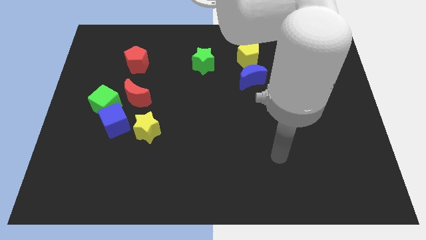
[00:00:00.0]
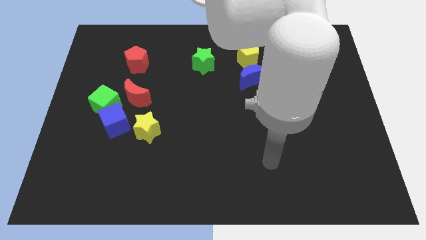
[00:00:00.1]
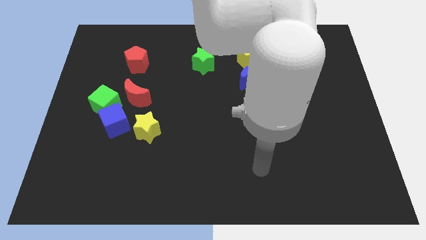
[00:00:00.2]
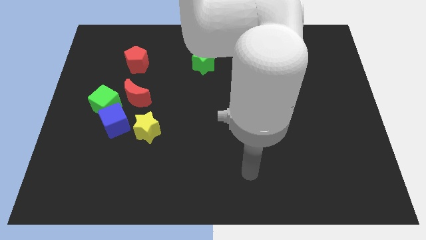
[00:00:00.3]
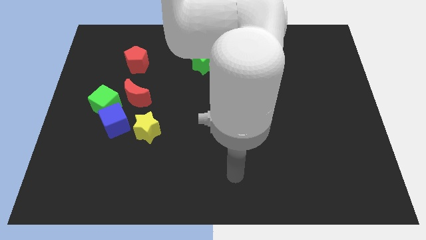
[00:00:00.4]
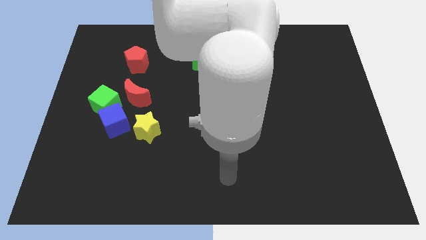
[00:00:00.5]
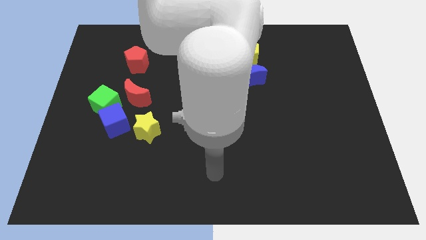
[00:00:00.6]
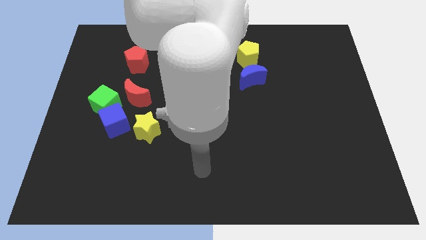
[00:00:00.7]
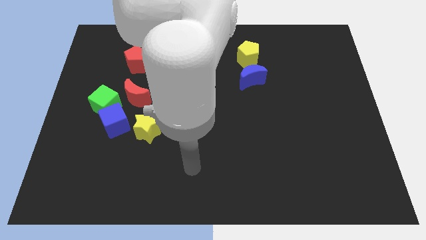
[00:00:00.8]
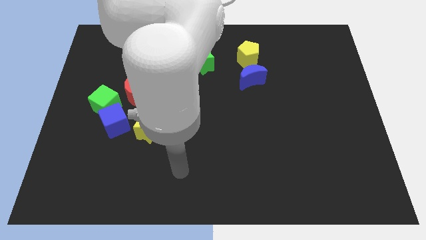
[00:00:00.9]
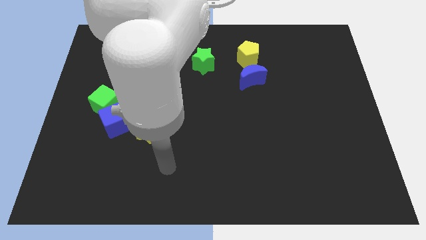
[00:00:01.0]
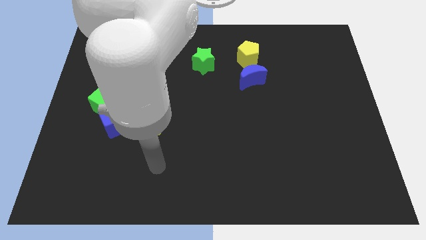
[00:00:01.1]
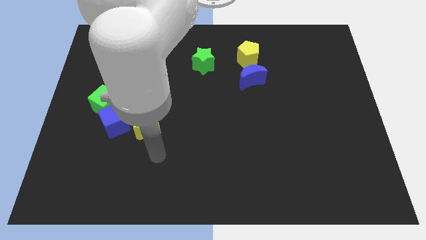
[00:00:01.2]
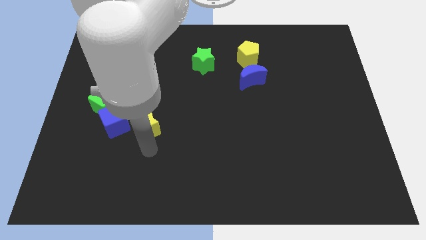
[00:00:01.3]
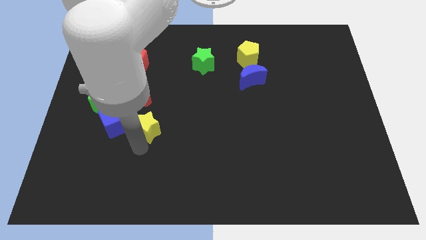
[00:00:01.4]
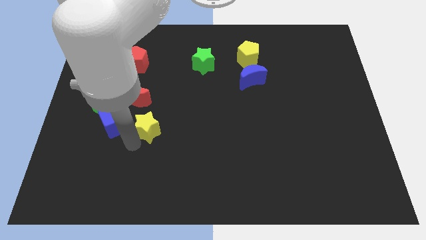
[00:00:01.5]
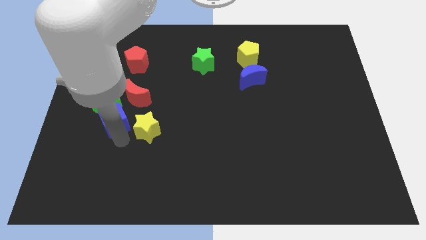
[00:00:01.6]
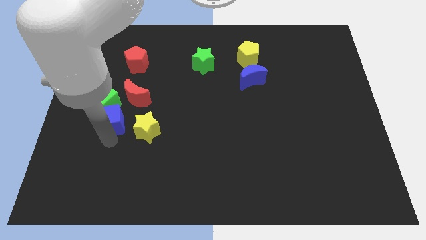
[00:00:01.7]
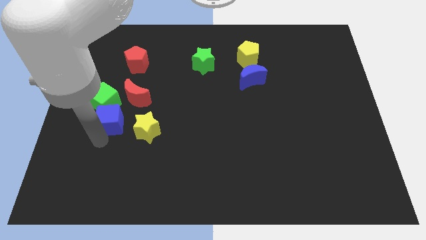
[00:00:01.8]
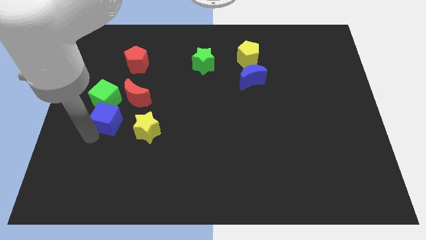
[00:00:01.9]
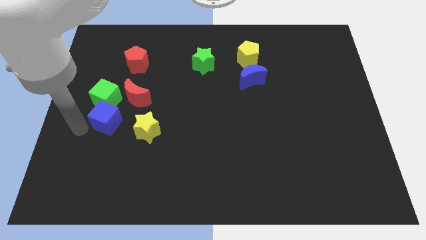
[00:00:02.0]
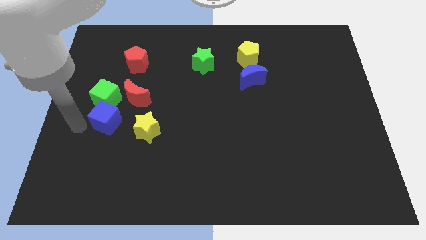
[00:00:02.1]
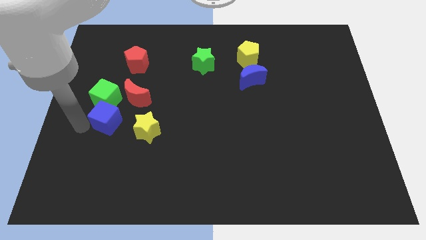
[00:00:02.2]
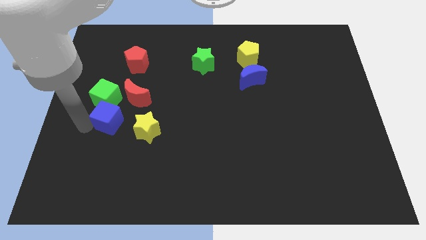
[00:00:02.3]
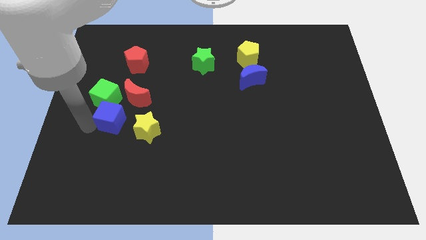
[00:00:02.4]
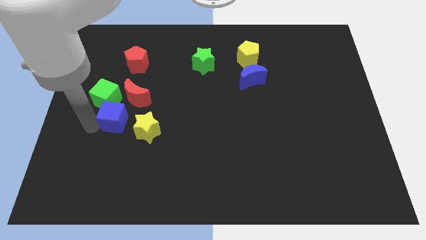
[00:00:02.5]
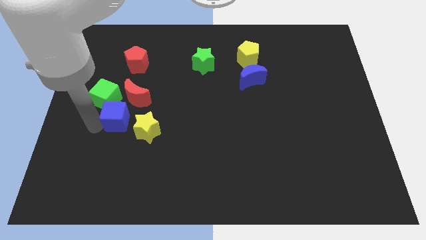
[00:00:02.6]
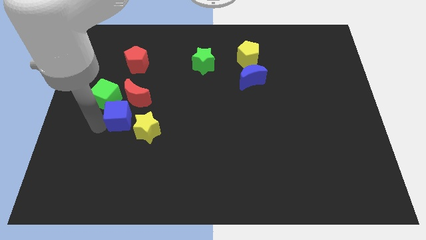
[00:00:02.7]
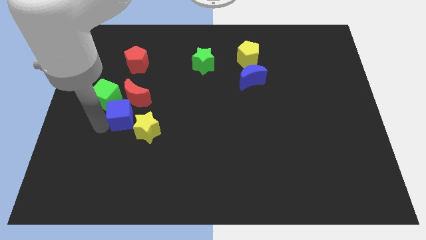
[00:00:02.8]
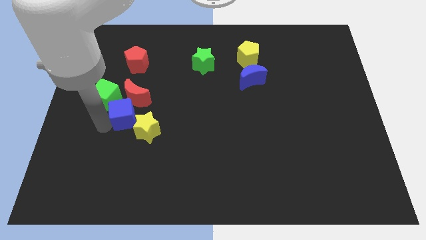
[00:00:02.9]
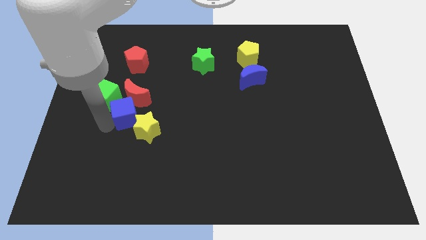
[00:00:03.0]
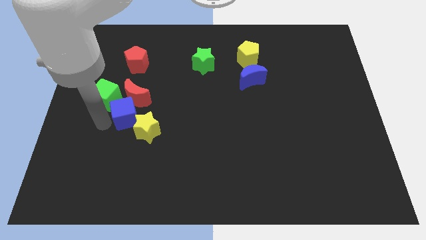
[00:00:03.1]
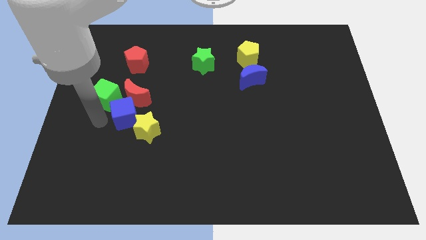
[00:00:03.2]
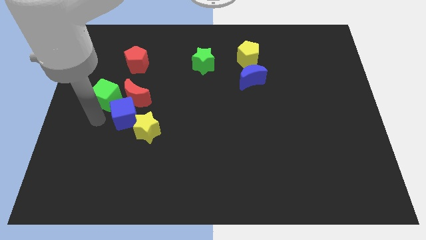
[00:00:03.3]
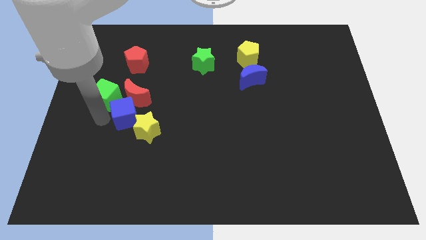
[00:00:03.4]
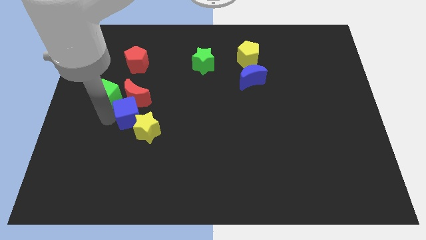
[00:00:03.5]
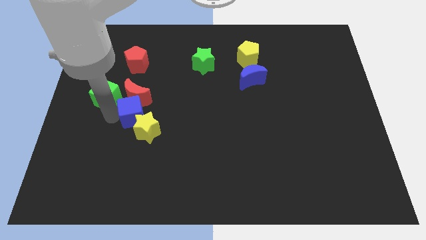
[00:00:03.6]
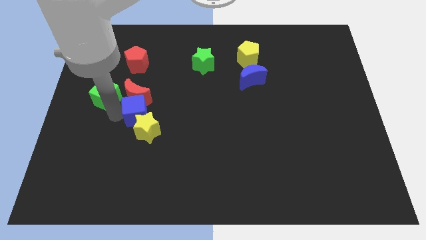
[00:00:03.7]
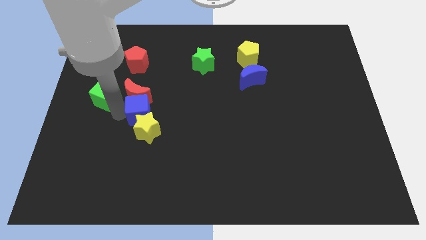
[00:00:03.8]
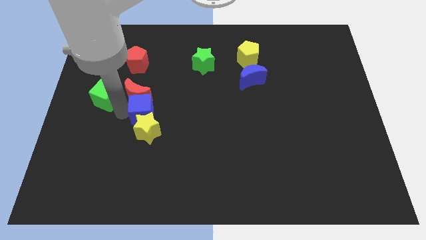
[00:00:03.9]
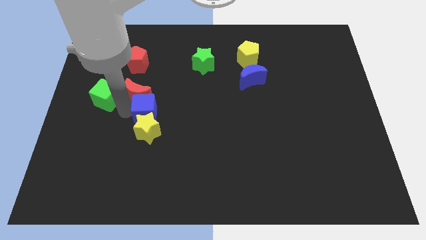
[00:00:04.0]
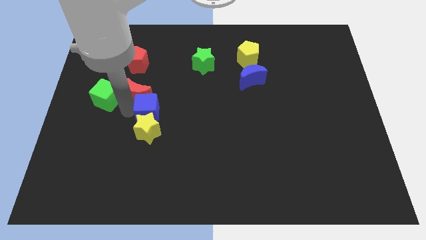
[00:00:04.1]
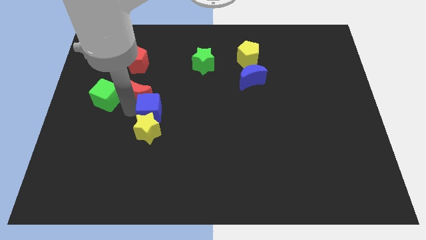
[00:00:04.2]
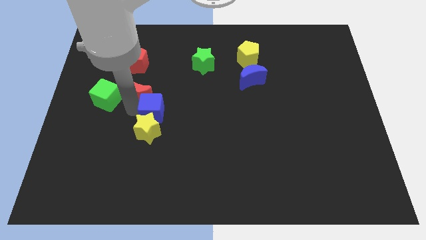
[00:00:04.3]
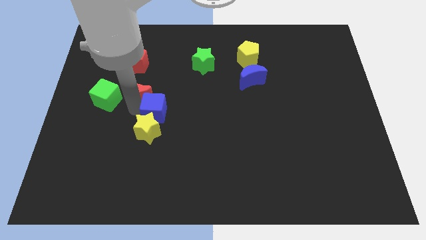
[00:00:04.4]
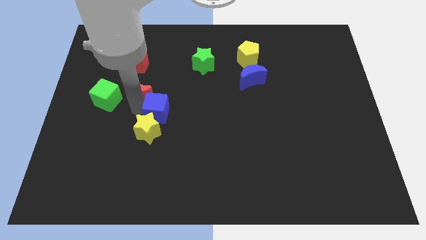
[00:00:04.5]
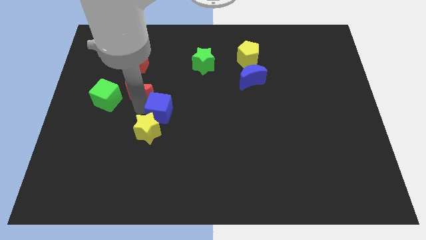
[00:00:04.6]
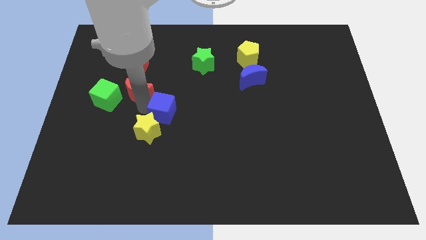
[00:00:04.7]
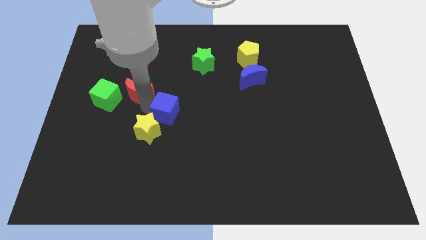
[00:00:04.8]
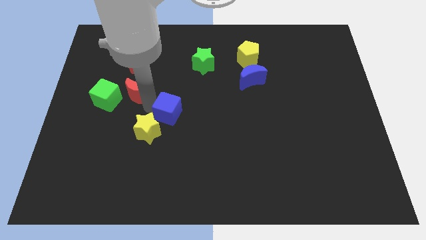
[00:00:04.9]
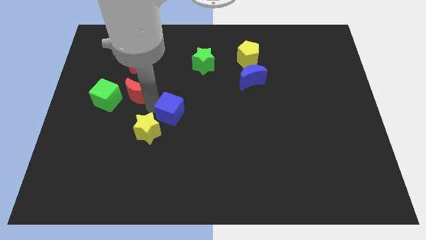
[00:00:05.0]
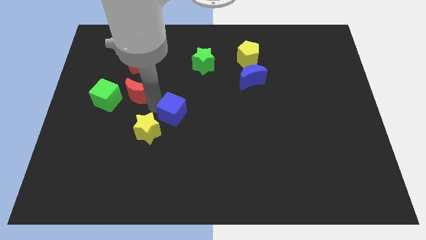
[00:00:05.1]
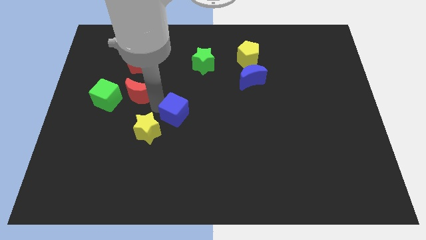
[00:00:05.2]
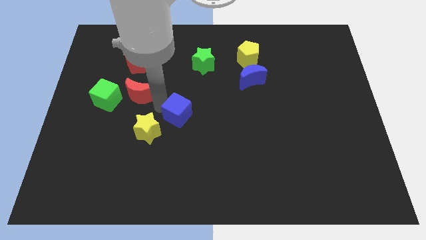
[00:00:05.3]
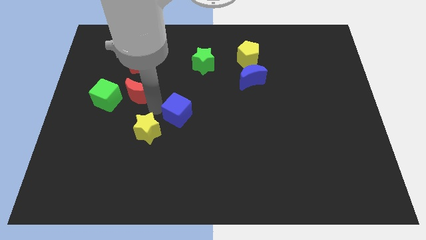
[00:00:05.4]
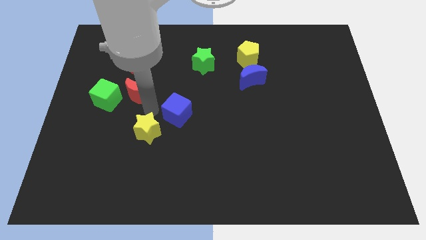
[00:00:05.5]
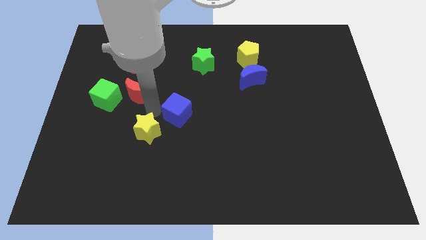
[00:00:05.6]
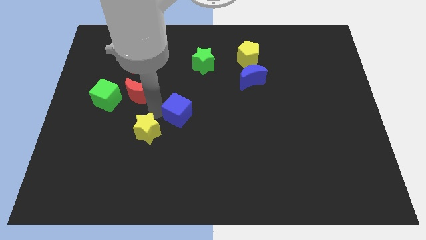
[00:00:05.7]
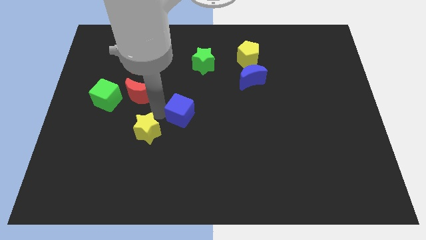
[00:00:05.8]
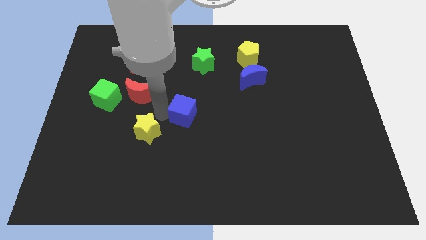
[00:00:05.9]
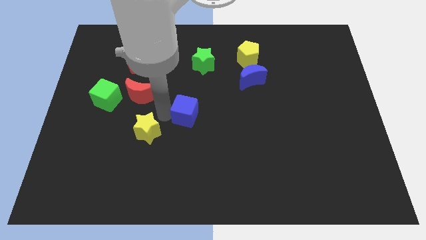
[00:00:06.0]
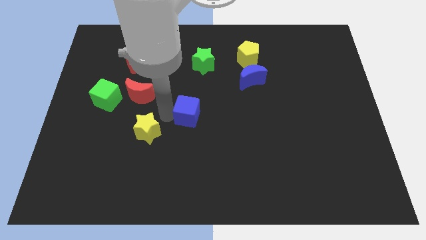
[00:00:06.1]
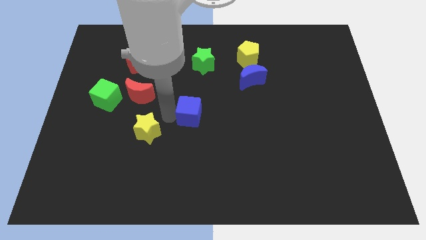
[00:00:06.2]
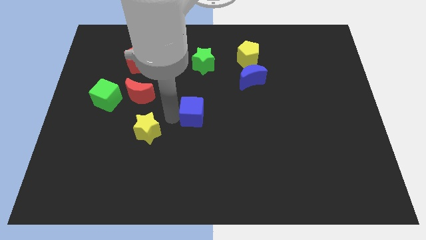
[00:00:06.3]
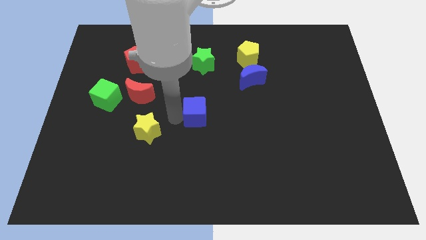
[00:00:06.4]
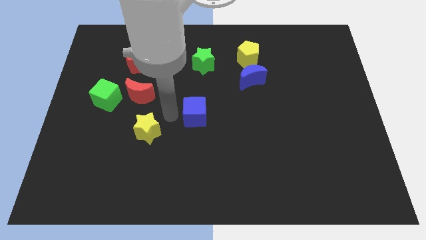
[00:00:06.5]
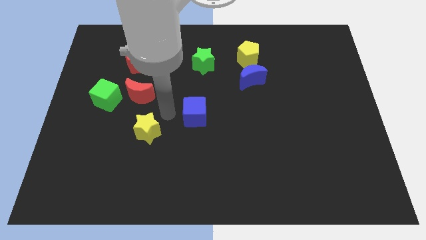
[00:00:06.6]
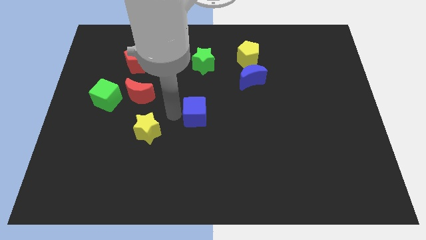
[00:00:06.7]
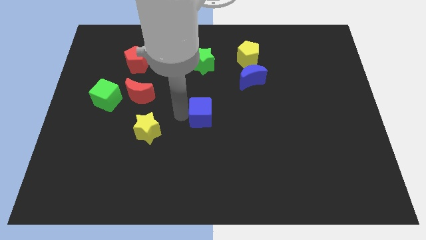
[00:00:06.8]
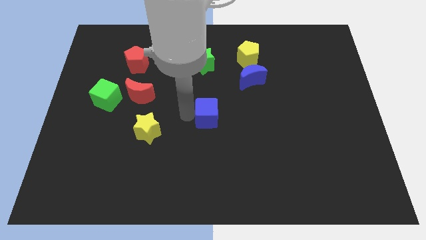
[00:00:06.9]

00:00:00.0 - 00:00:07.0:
push the blue cube to the right

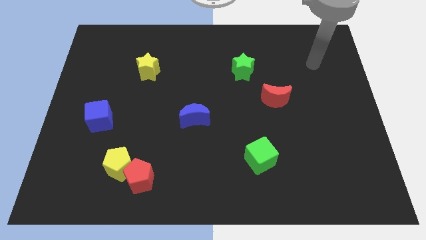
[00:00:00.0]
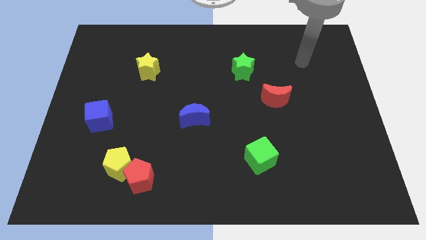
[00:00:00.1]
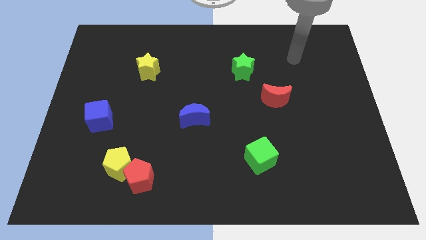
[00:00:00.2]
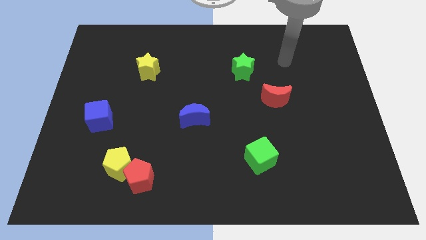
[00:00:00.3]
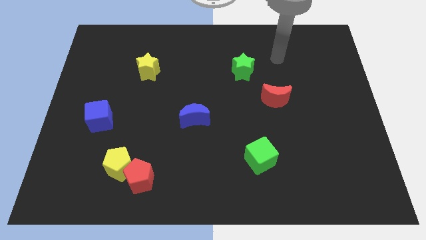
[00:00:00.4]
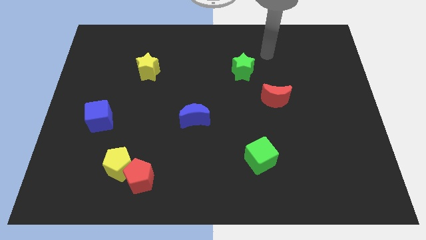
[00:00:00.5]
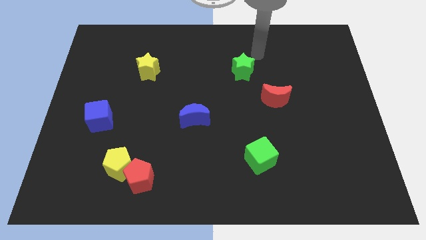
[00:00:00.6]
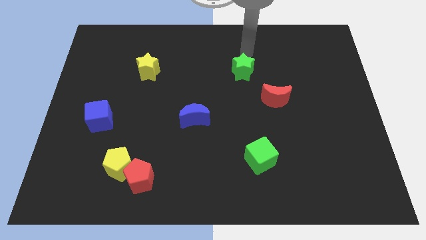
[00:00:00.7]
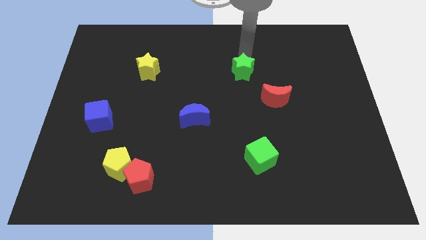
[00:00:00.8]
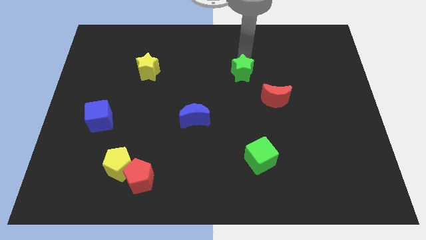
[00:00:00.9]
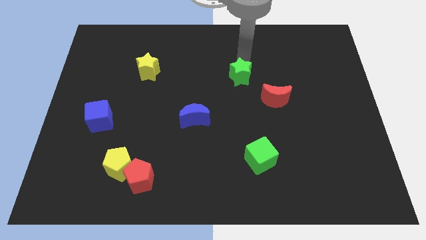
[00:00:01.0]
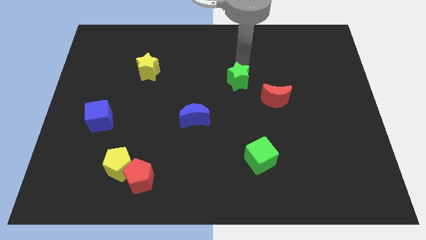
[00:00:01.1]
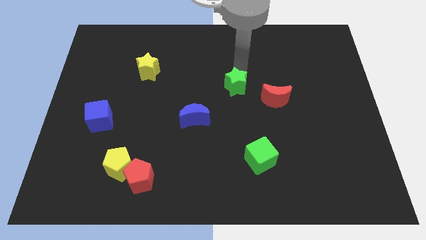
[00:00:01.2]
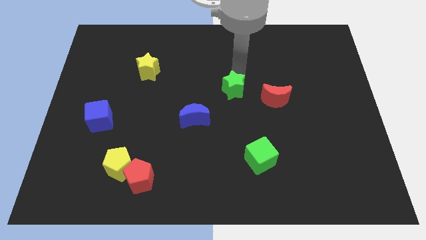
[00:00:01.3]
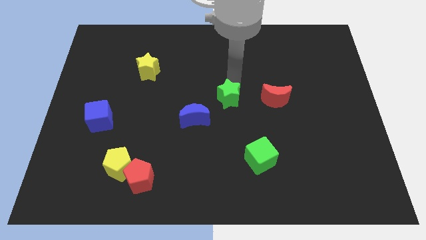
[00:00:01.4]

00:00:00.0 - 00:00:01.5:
move the green star down a bit
